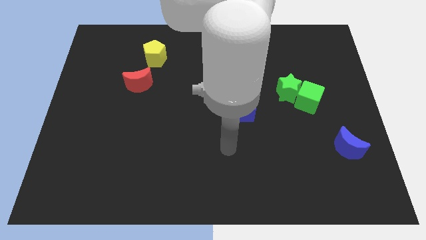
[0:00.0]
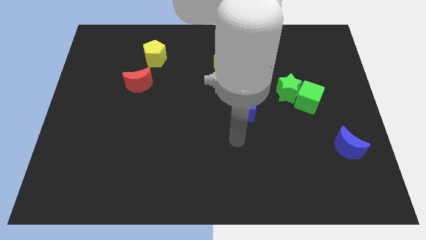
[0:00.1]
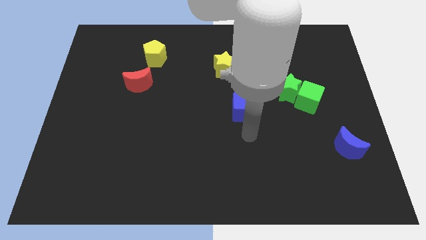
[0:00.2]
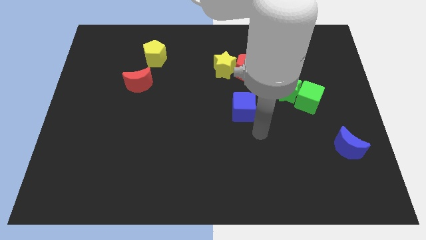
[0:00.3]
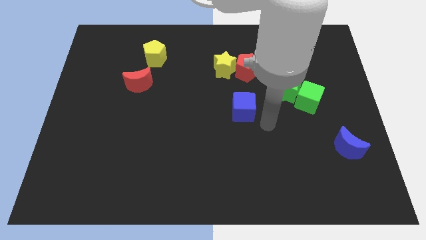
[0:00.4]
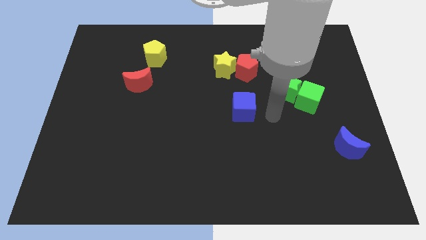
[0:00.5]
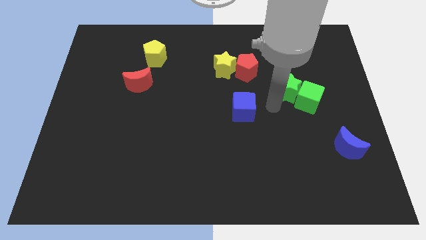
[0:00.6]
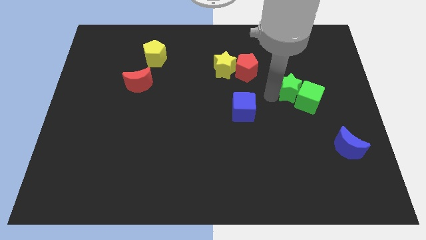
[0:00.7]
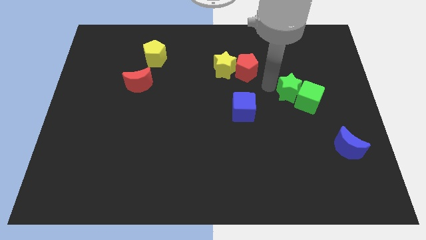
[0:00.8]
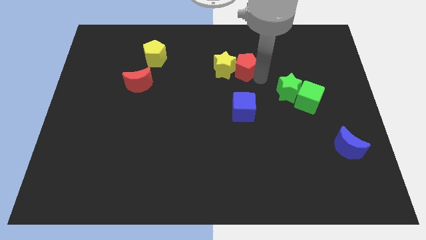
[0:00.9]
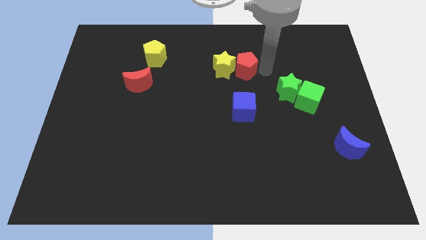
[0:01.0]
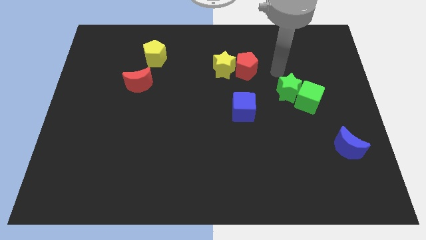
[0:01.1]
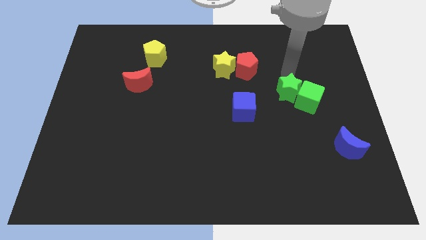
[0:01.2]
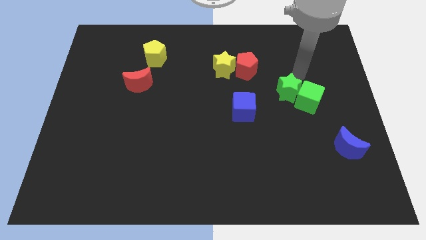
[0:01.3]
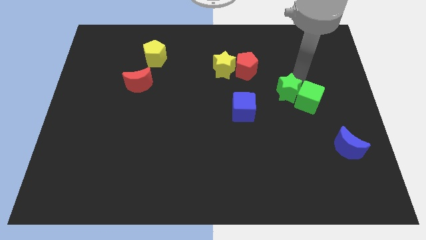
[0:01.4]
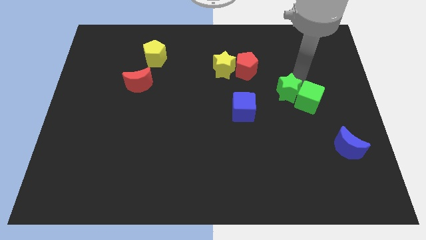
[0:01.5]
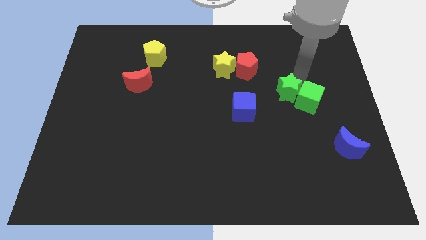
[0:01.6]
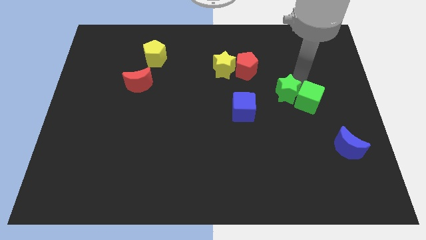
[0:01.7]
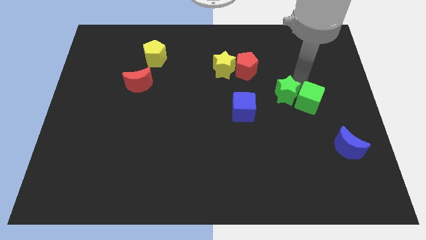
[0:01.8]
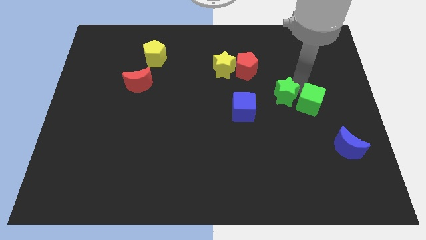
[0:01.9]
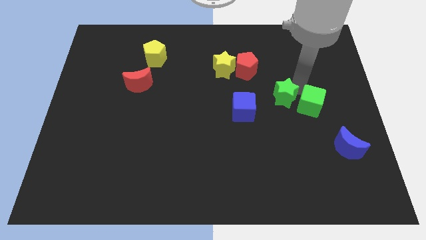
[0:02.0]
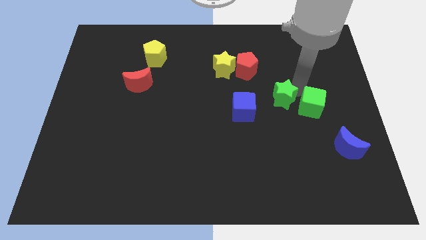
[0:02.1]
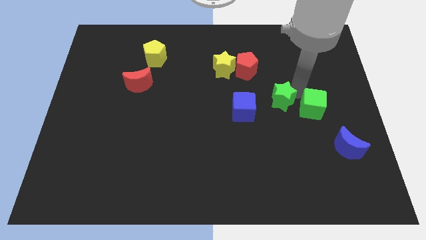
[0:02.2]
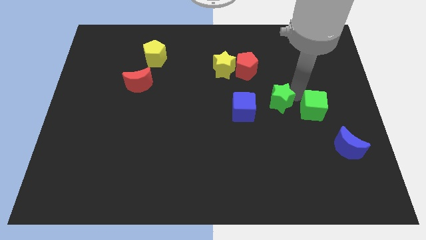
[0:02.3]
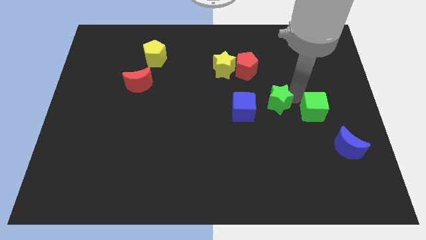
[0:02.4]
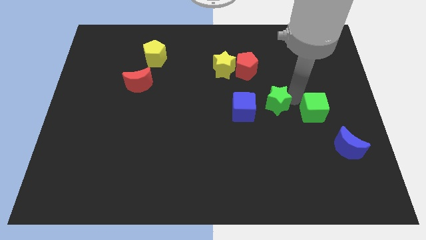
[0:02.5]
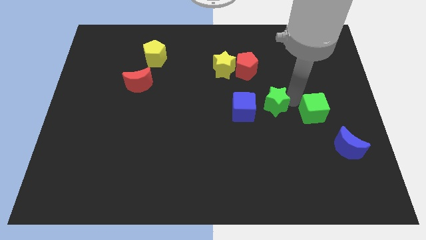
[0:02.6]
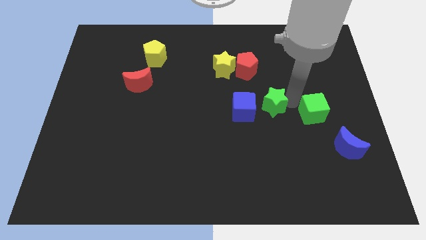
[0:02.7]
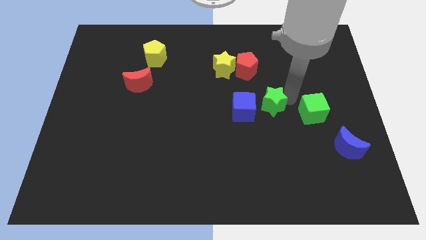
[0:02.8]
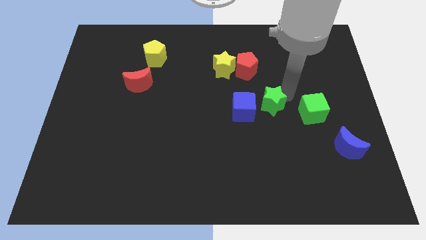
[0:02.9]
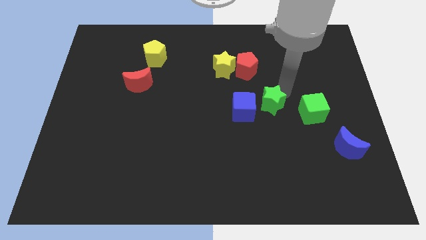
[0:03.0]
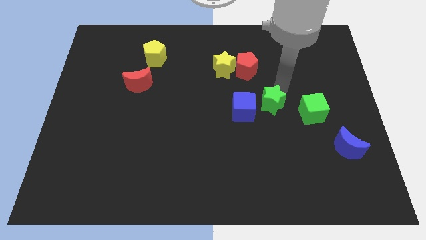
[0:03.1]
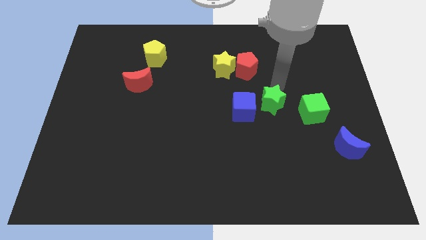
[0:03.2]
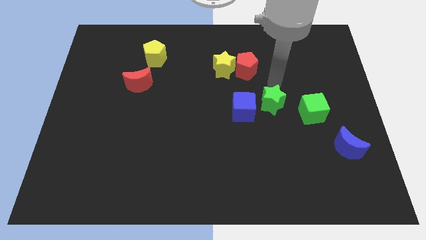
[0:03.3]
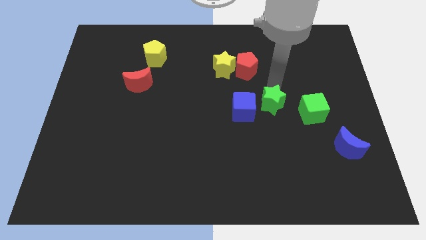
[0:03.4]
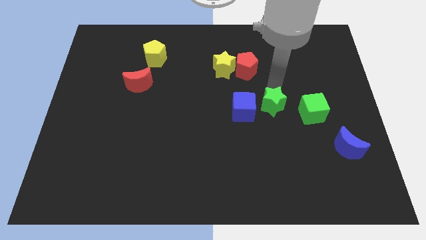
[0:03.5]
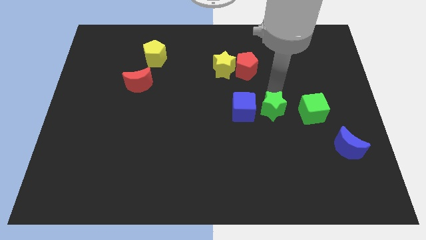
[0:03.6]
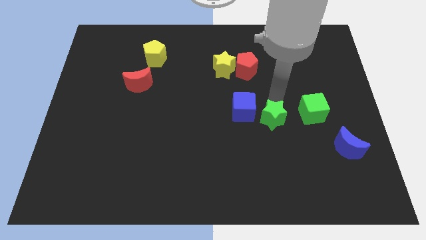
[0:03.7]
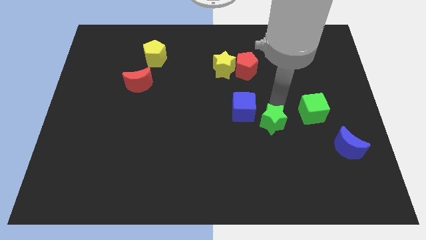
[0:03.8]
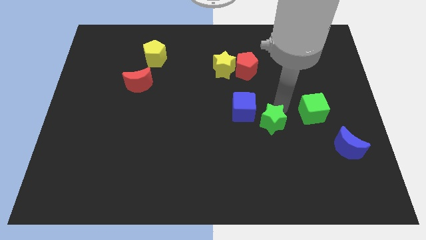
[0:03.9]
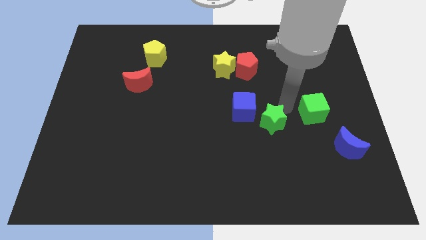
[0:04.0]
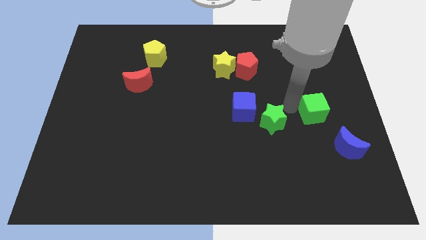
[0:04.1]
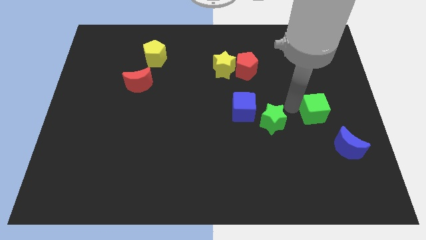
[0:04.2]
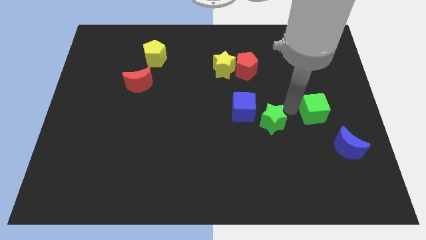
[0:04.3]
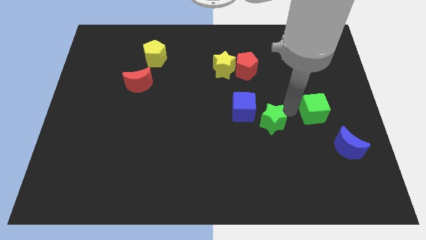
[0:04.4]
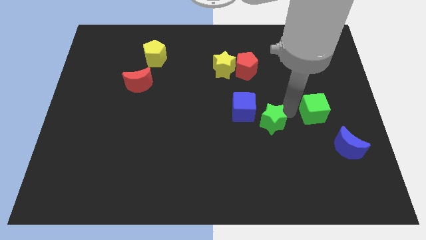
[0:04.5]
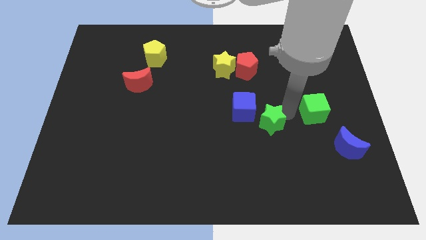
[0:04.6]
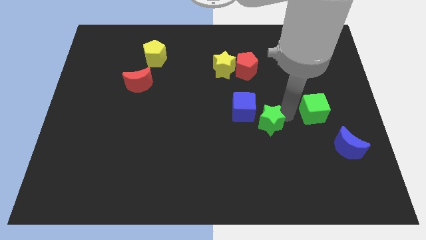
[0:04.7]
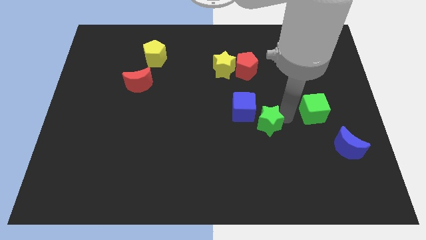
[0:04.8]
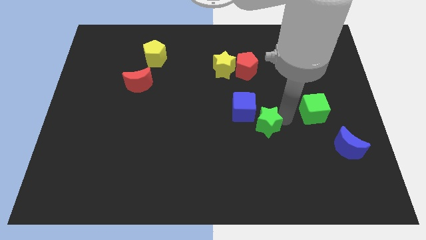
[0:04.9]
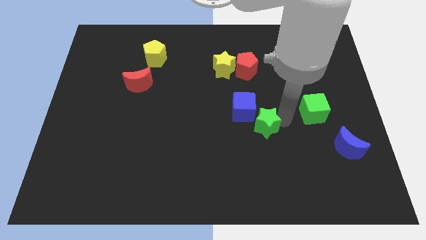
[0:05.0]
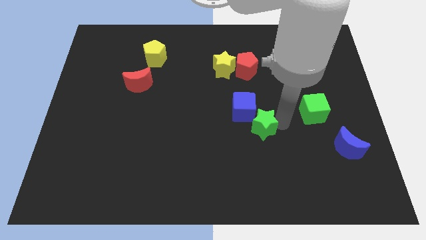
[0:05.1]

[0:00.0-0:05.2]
move the green star to the bottom of the blue cube

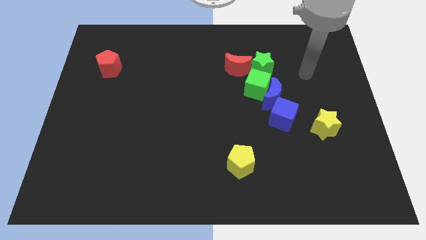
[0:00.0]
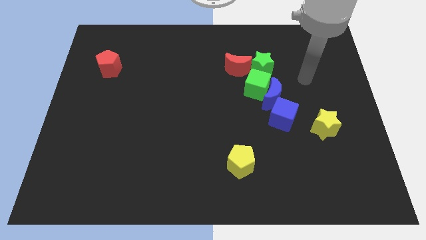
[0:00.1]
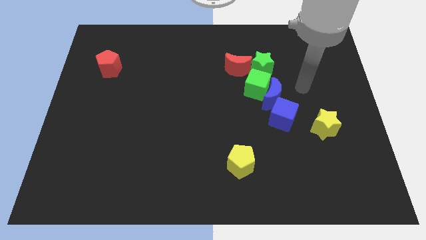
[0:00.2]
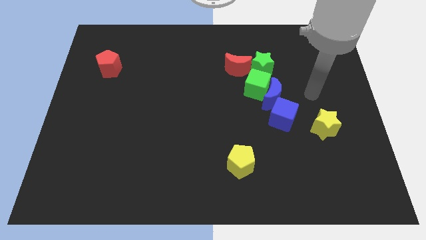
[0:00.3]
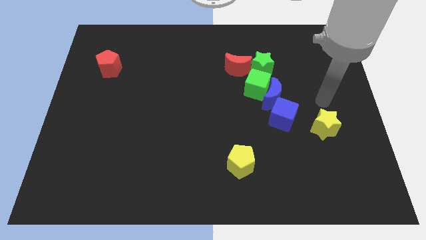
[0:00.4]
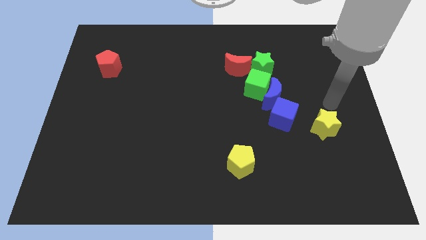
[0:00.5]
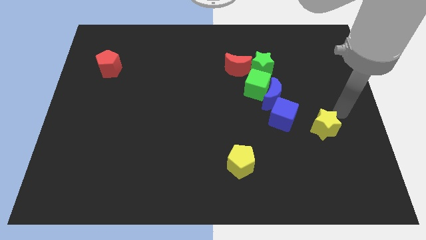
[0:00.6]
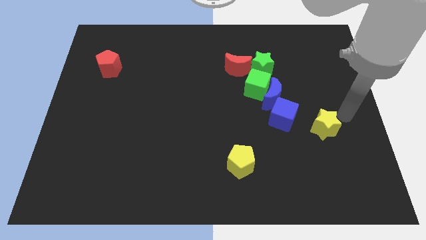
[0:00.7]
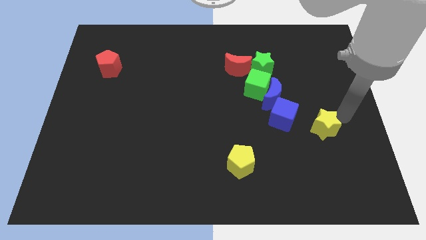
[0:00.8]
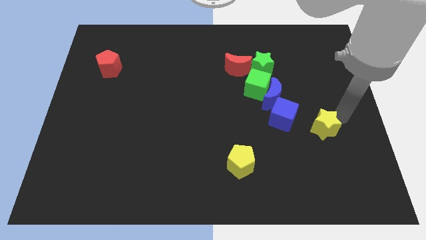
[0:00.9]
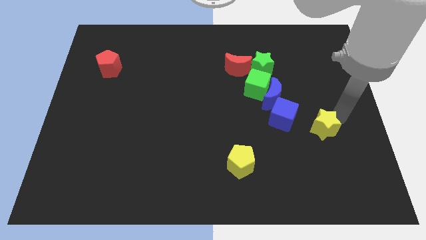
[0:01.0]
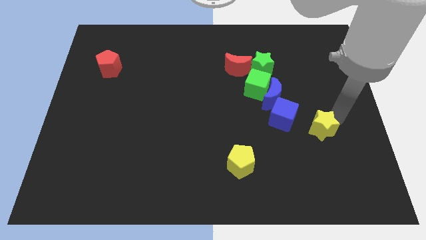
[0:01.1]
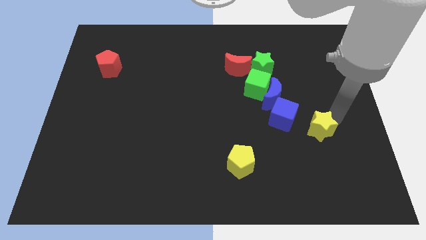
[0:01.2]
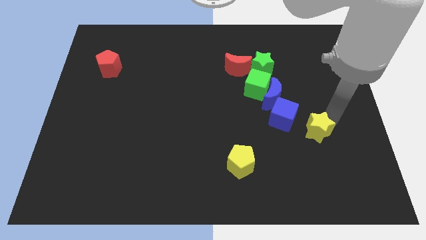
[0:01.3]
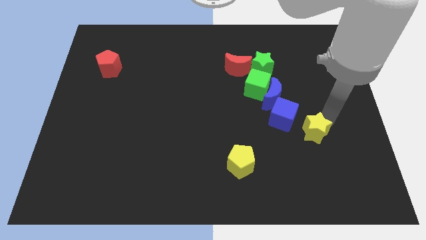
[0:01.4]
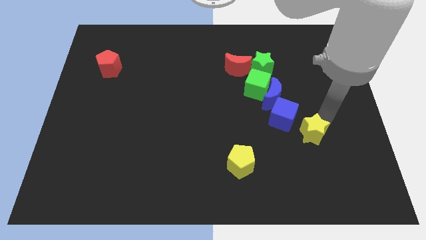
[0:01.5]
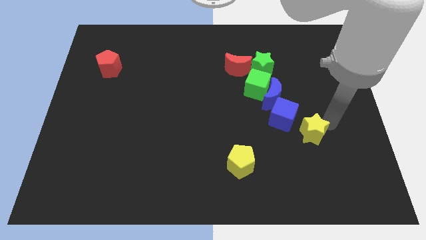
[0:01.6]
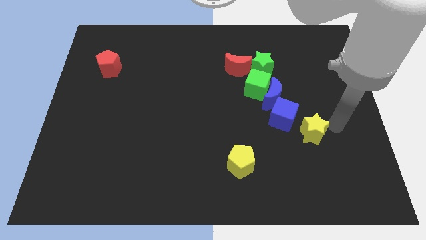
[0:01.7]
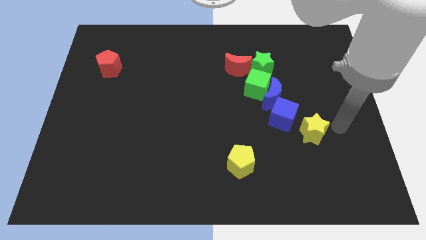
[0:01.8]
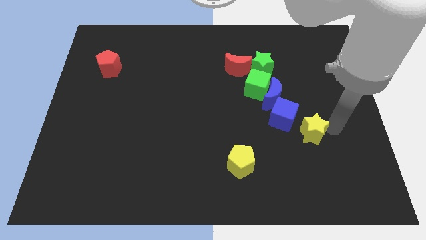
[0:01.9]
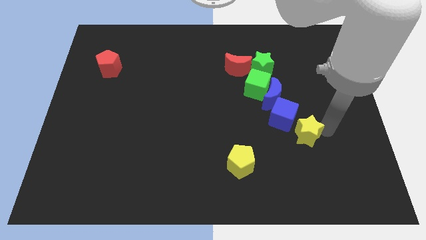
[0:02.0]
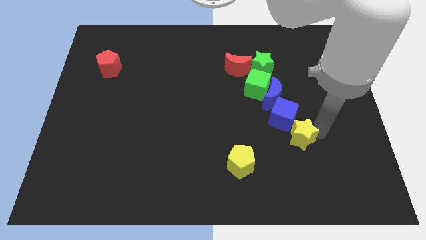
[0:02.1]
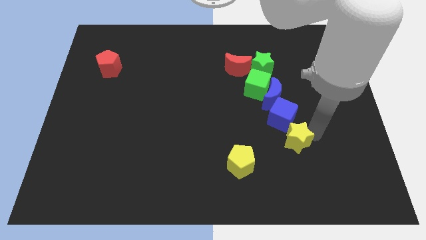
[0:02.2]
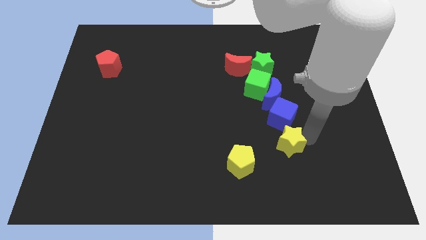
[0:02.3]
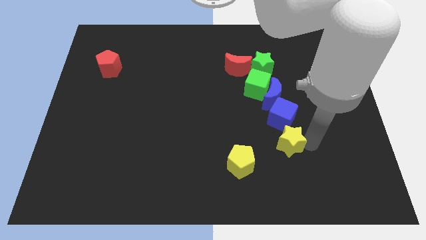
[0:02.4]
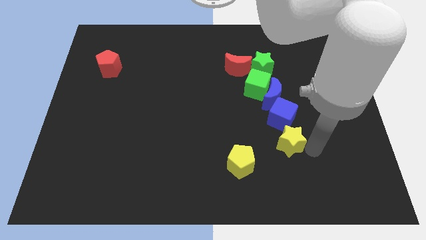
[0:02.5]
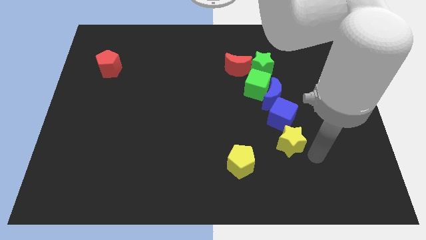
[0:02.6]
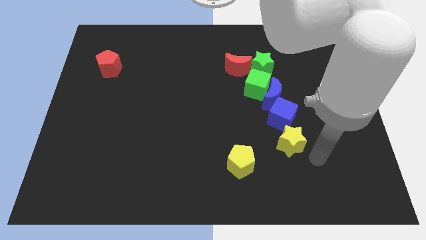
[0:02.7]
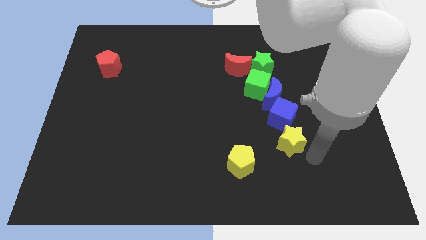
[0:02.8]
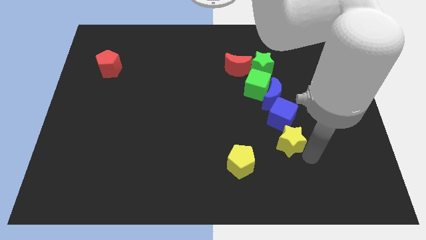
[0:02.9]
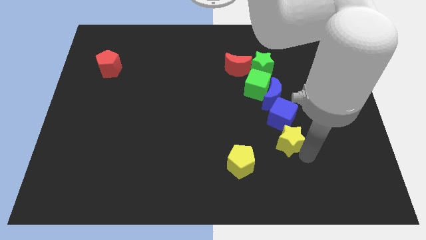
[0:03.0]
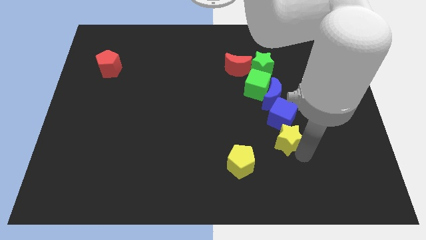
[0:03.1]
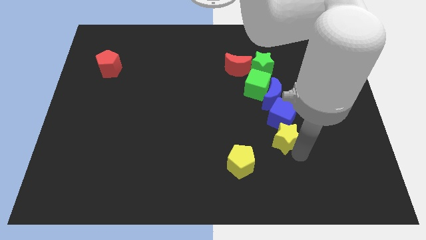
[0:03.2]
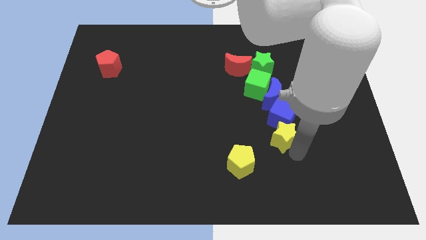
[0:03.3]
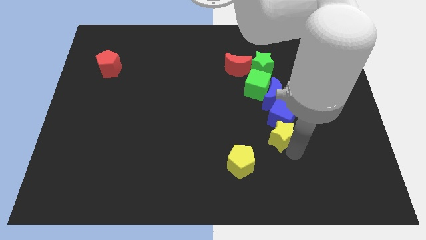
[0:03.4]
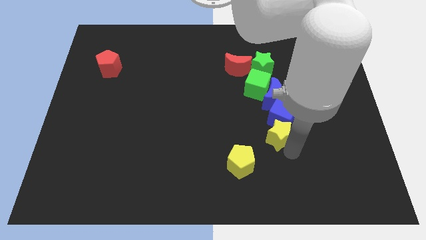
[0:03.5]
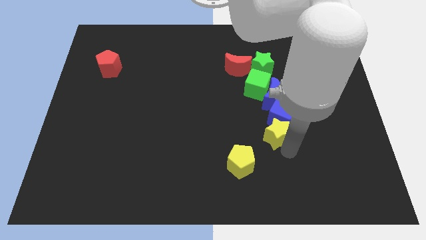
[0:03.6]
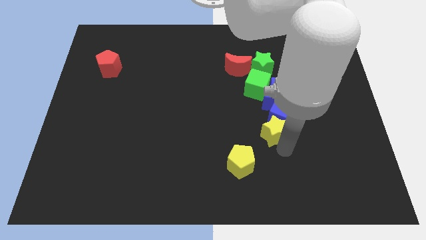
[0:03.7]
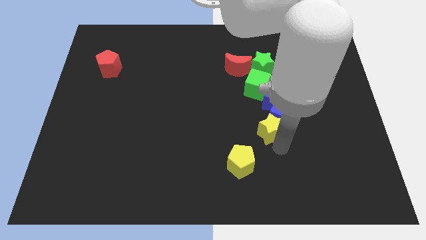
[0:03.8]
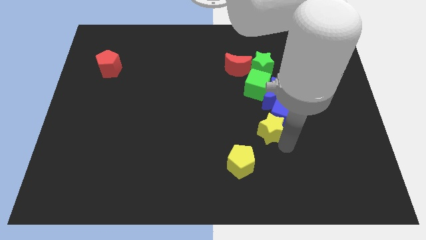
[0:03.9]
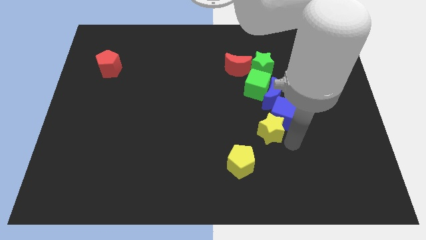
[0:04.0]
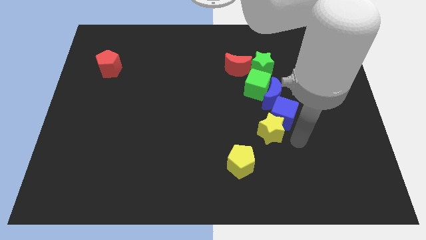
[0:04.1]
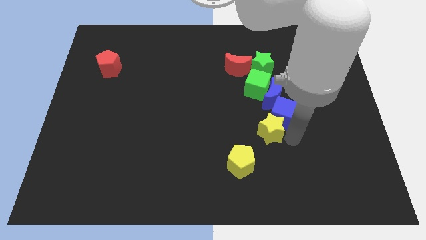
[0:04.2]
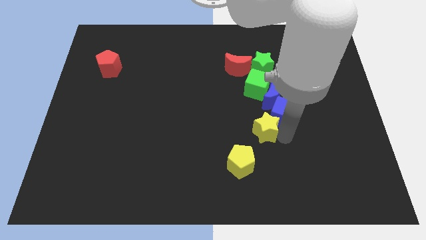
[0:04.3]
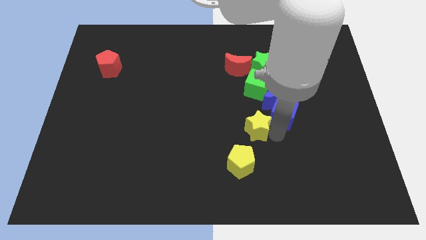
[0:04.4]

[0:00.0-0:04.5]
put the yellow star above the yellow pentagon
